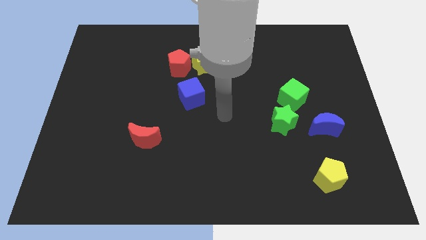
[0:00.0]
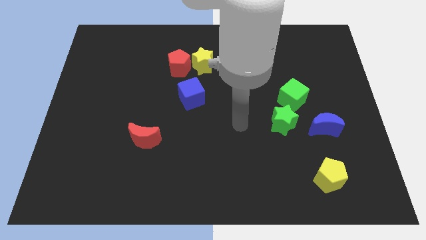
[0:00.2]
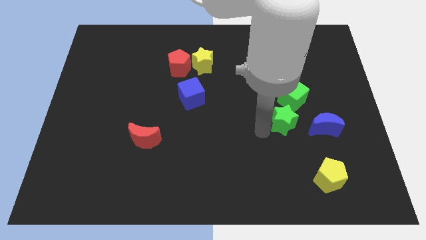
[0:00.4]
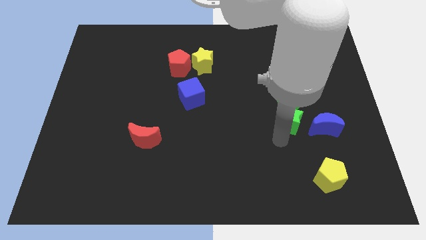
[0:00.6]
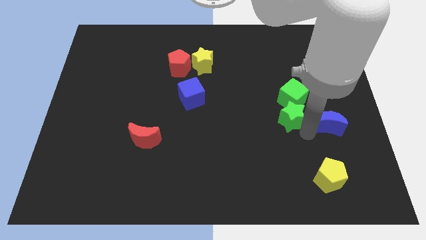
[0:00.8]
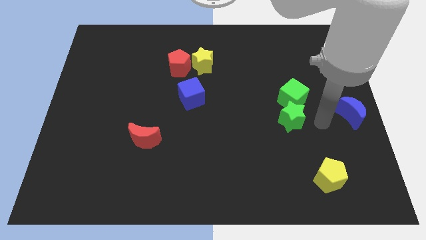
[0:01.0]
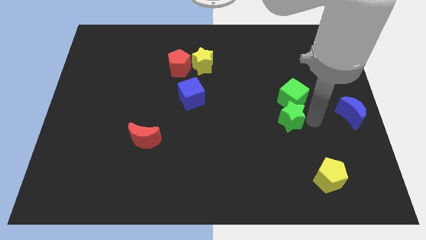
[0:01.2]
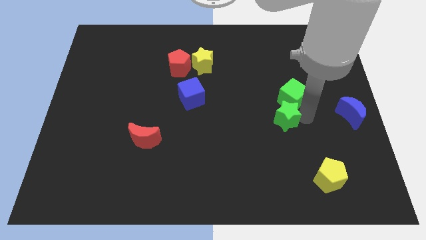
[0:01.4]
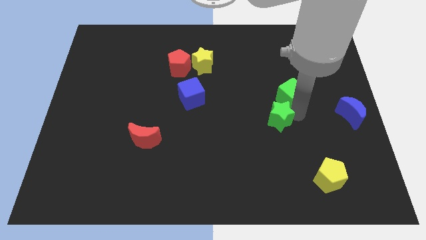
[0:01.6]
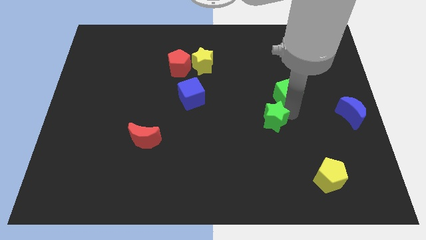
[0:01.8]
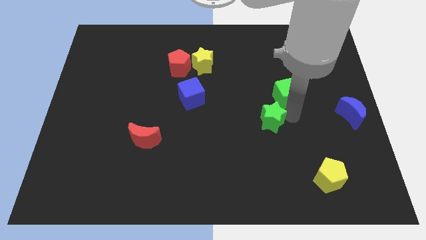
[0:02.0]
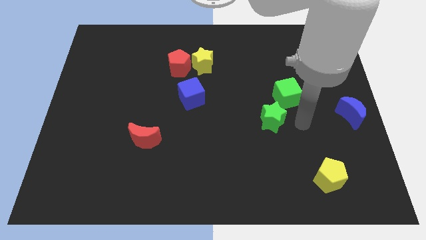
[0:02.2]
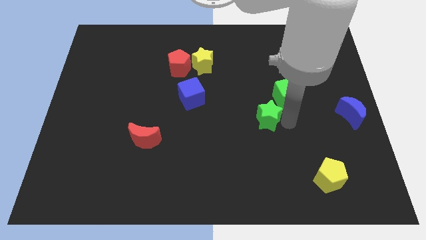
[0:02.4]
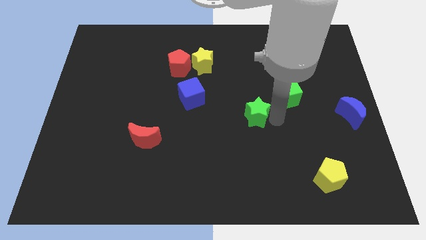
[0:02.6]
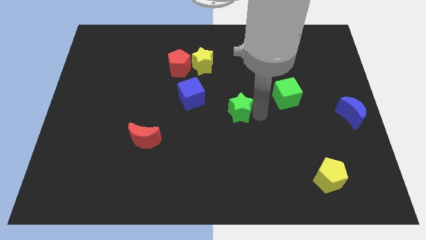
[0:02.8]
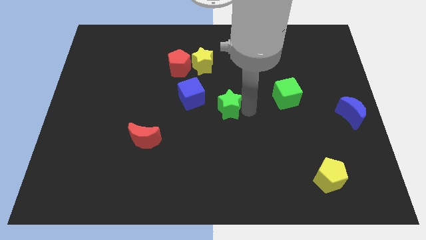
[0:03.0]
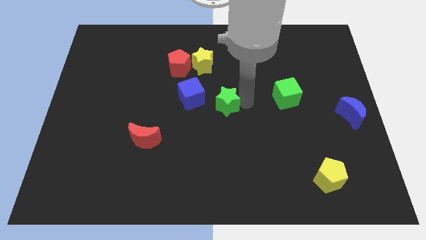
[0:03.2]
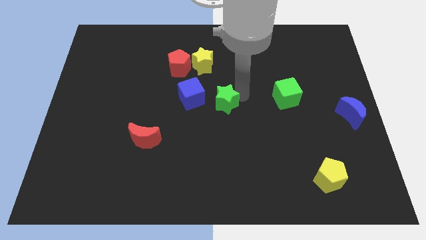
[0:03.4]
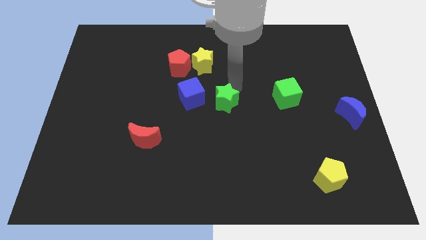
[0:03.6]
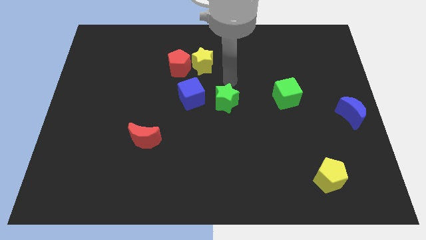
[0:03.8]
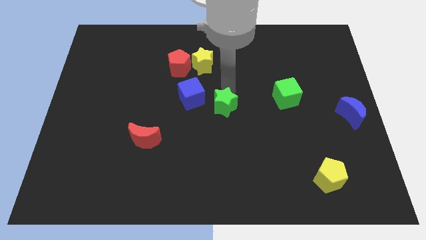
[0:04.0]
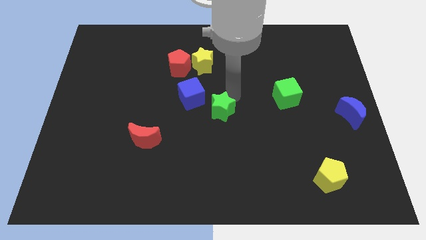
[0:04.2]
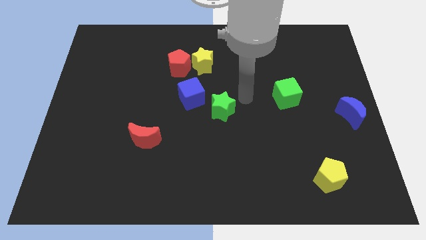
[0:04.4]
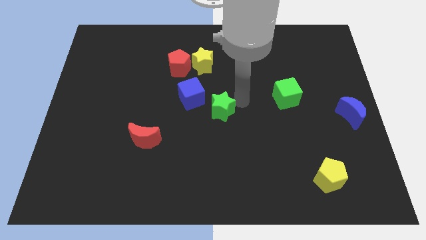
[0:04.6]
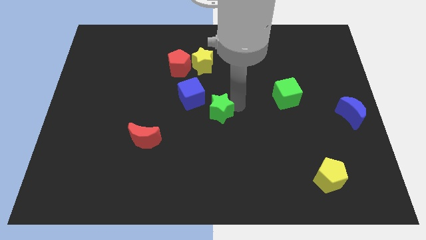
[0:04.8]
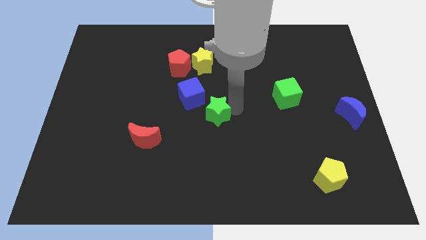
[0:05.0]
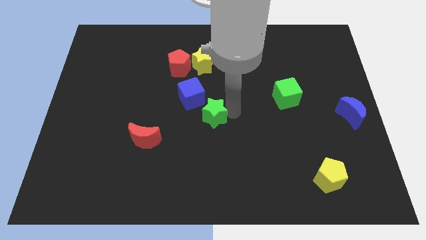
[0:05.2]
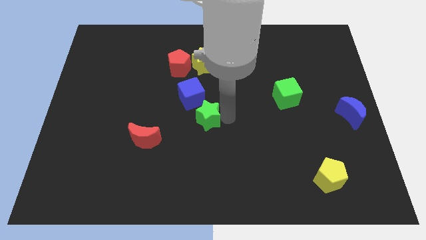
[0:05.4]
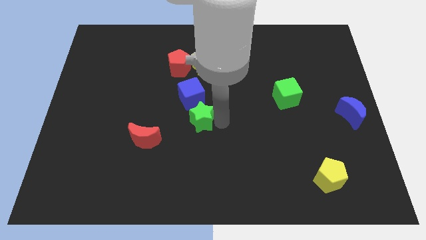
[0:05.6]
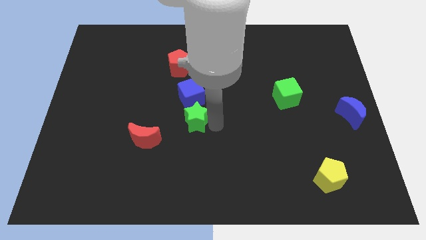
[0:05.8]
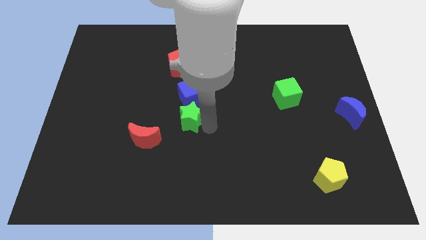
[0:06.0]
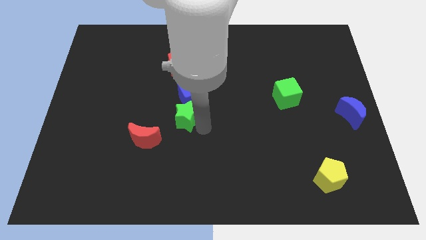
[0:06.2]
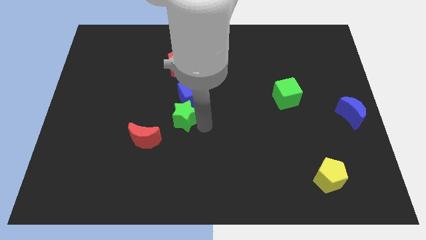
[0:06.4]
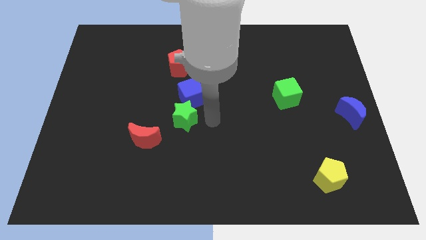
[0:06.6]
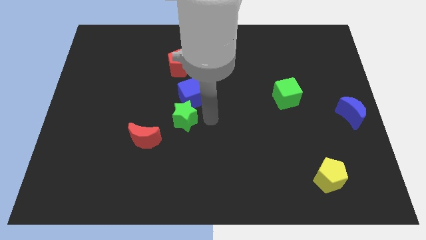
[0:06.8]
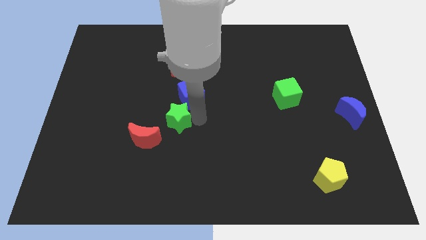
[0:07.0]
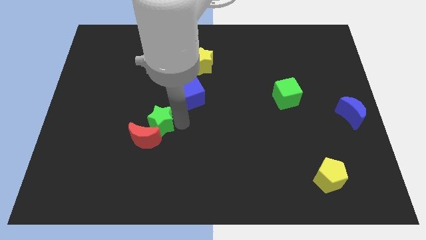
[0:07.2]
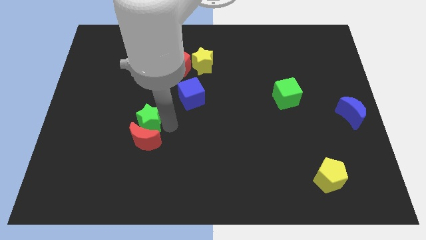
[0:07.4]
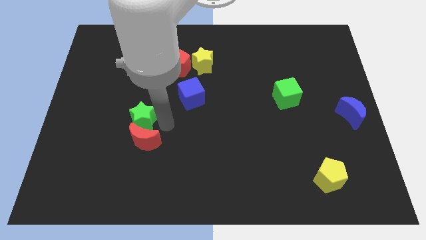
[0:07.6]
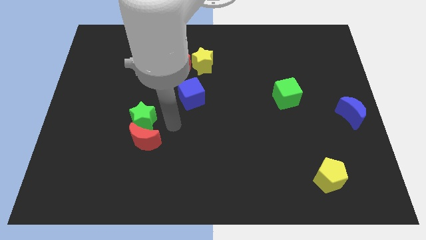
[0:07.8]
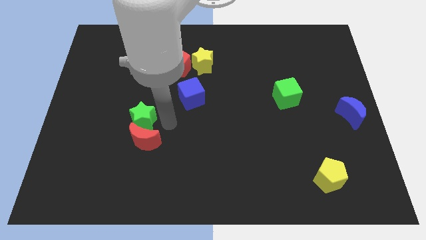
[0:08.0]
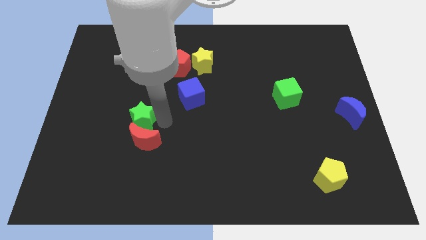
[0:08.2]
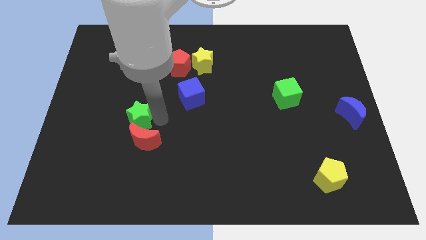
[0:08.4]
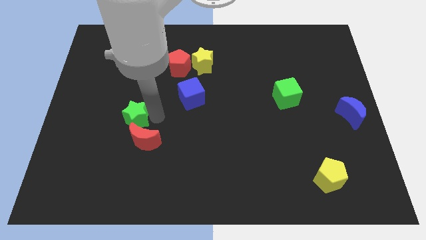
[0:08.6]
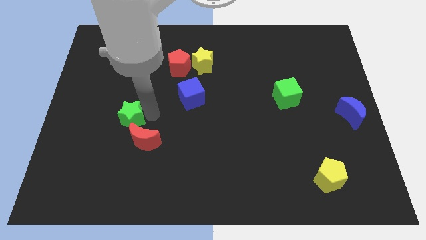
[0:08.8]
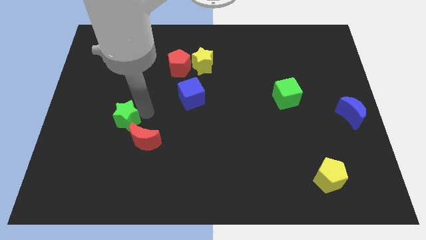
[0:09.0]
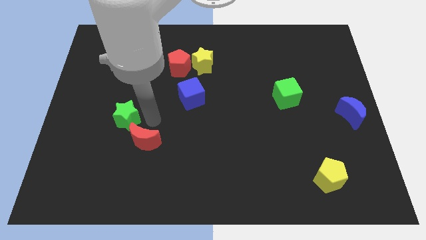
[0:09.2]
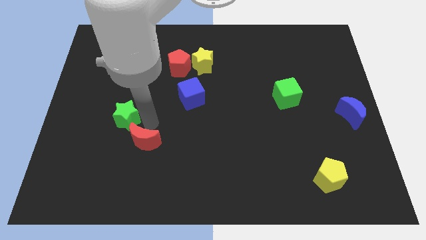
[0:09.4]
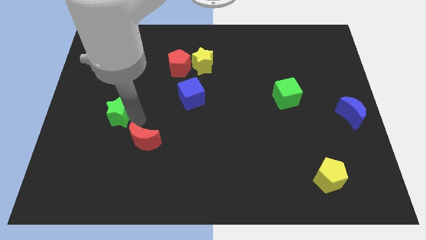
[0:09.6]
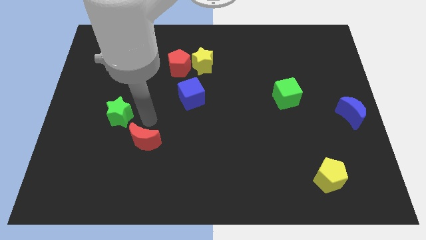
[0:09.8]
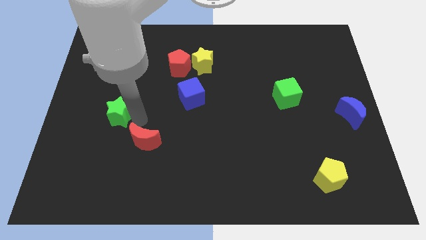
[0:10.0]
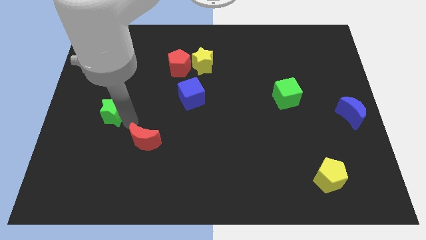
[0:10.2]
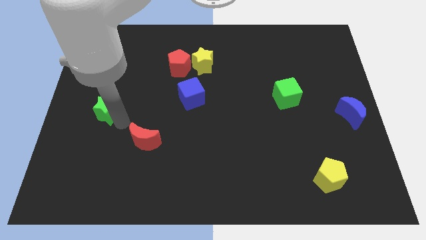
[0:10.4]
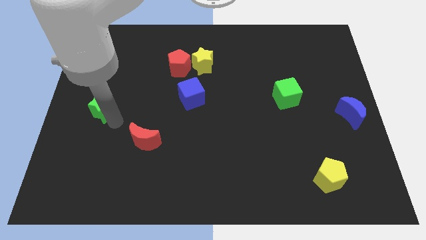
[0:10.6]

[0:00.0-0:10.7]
move the green star to the left side

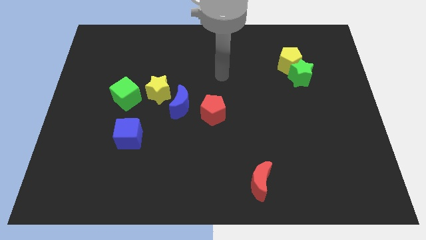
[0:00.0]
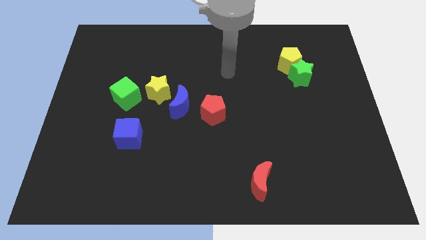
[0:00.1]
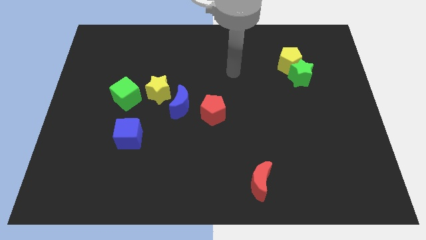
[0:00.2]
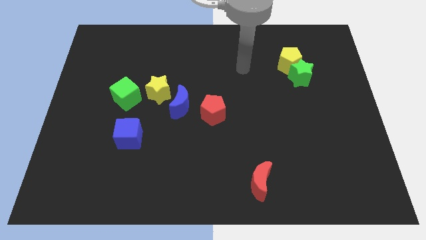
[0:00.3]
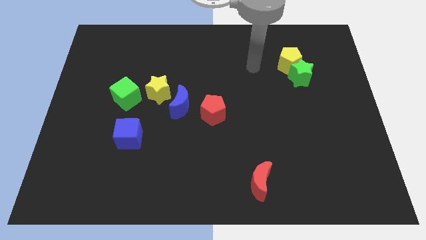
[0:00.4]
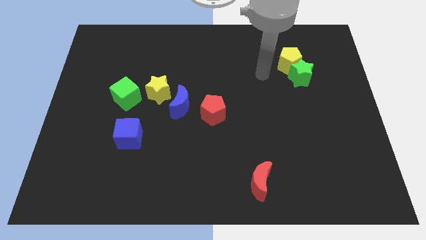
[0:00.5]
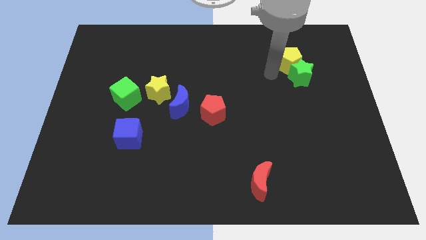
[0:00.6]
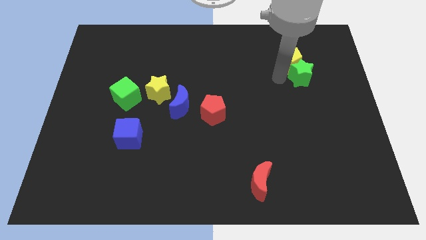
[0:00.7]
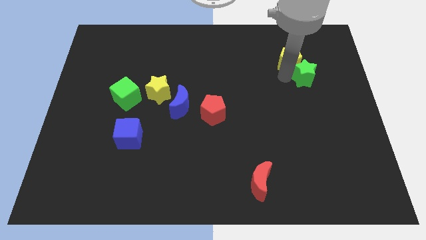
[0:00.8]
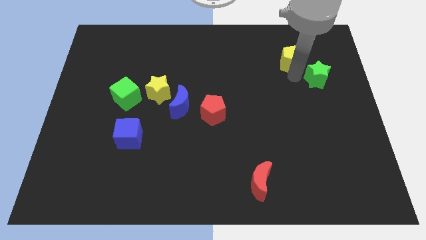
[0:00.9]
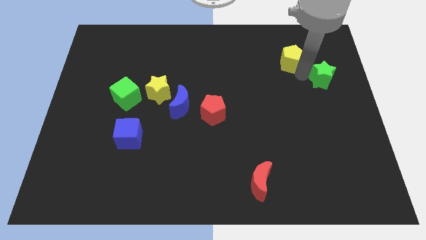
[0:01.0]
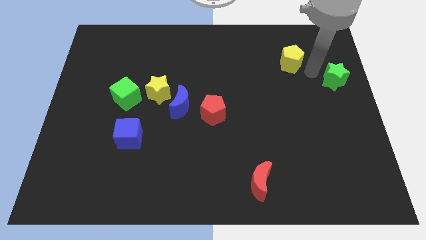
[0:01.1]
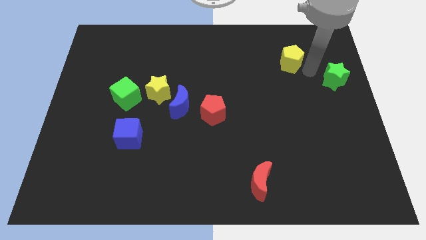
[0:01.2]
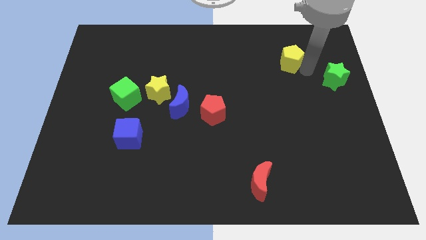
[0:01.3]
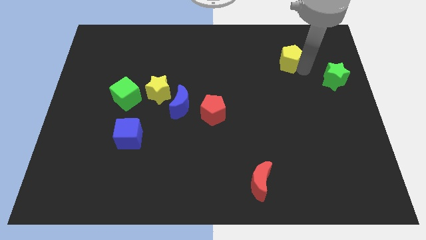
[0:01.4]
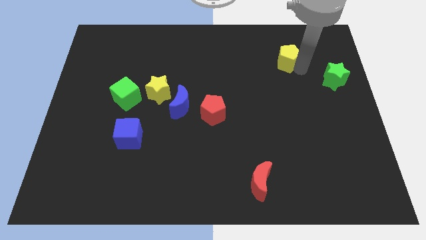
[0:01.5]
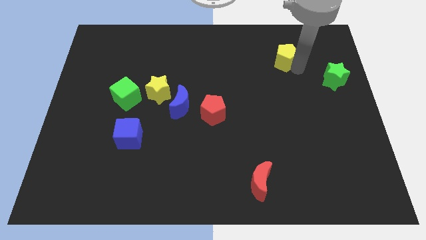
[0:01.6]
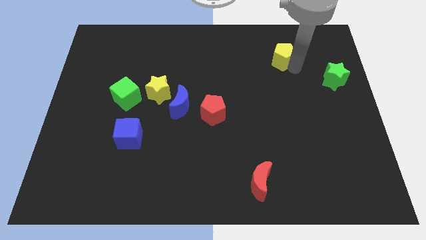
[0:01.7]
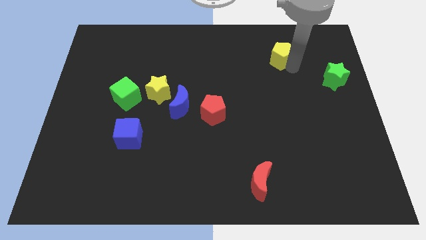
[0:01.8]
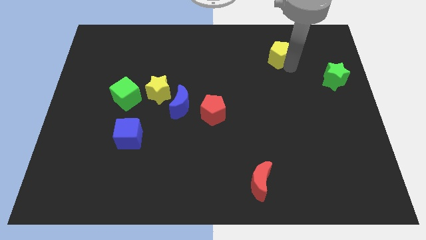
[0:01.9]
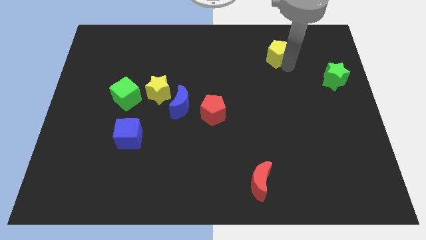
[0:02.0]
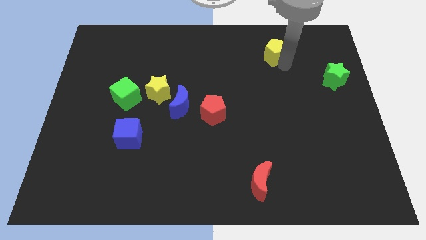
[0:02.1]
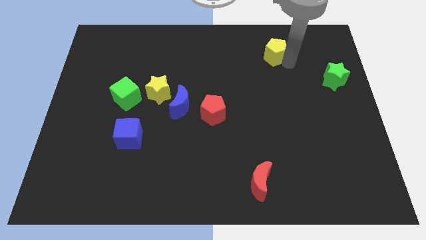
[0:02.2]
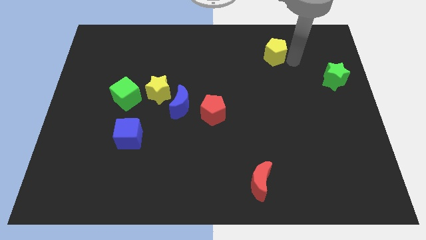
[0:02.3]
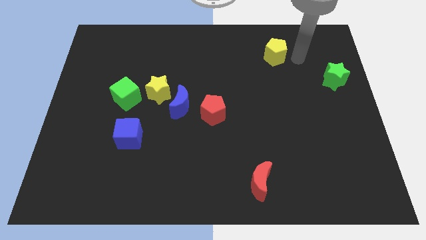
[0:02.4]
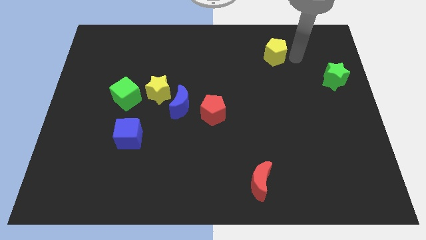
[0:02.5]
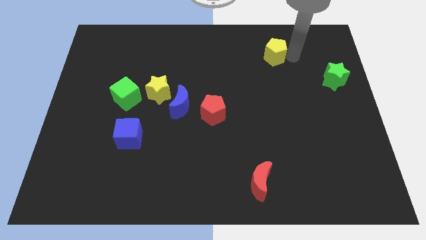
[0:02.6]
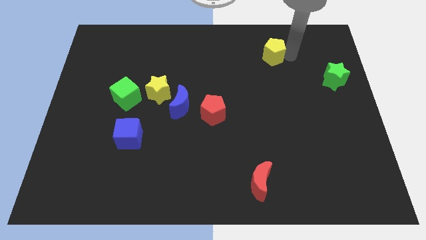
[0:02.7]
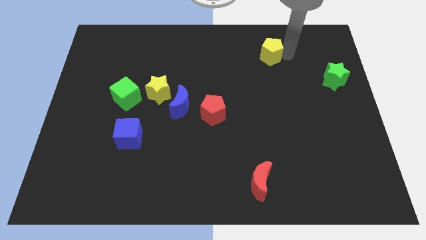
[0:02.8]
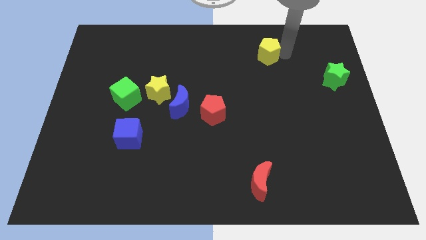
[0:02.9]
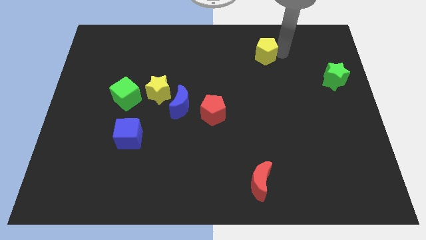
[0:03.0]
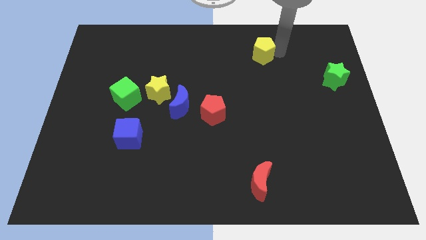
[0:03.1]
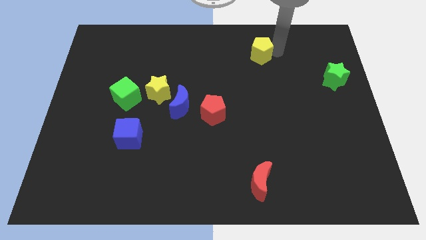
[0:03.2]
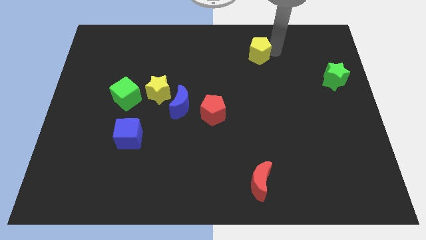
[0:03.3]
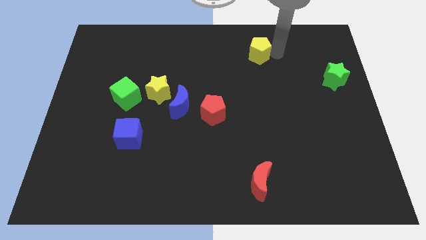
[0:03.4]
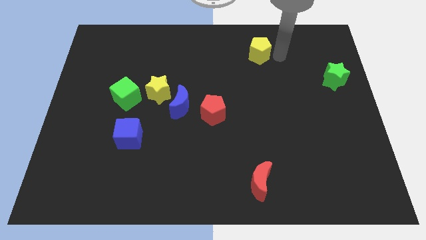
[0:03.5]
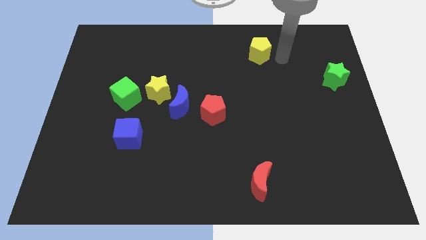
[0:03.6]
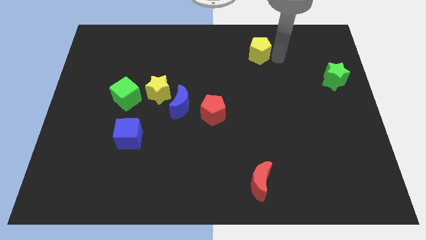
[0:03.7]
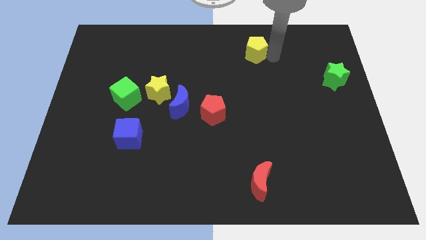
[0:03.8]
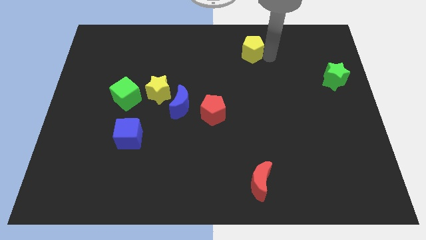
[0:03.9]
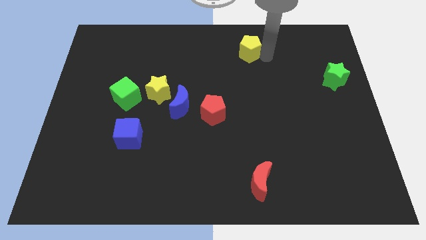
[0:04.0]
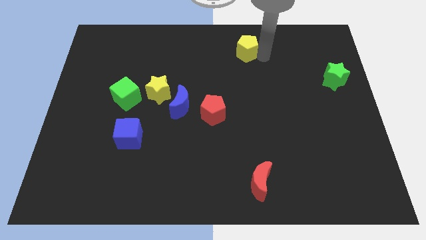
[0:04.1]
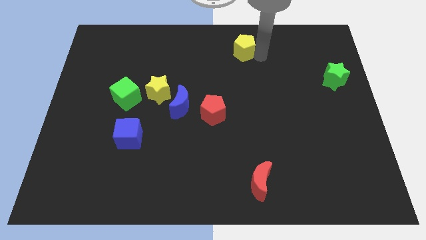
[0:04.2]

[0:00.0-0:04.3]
put the yellow pentagon to the towards your base
